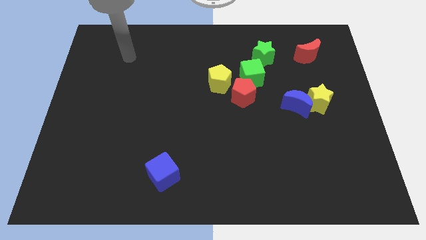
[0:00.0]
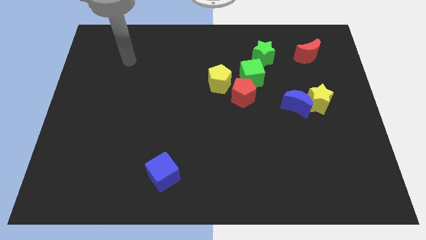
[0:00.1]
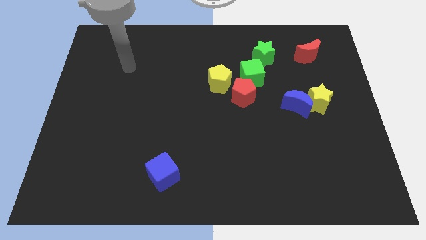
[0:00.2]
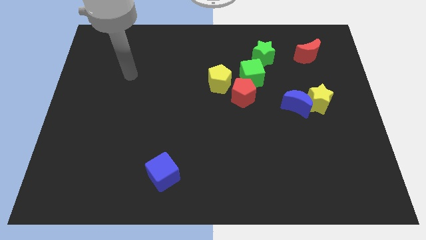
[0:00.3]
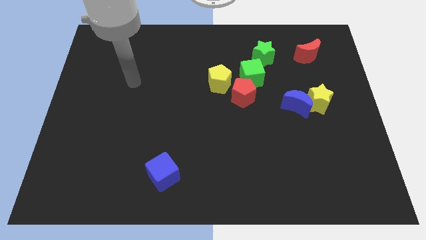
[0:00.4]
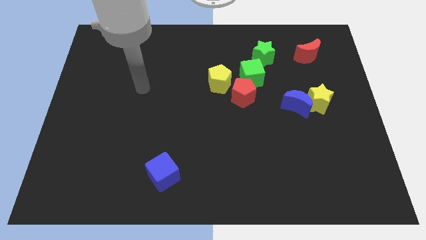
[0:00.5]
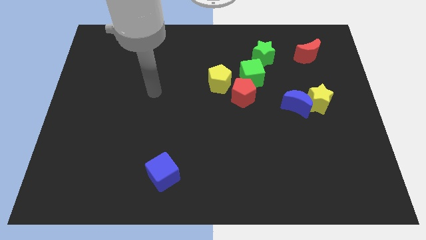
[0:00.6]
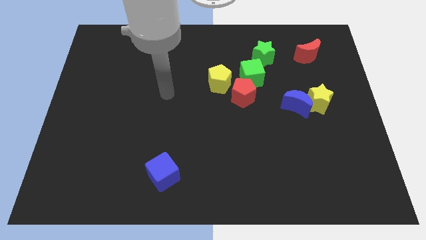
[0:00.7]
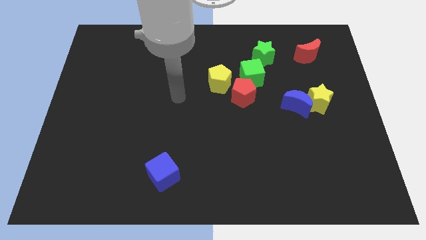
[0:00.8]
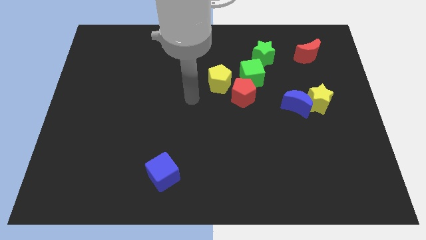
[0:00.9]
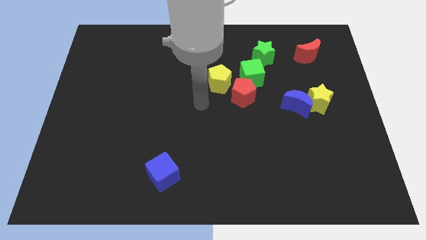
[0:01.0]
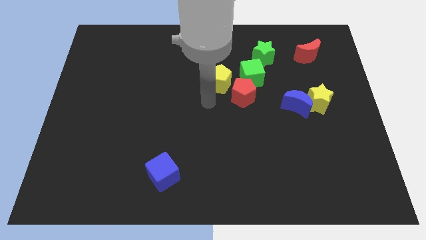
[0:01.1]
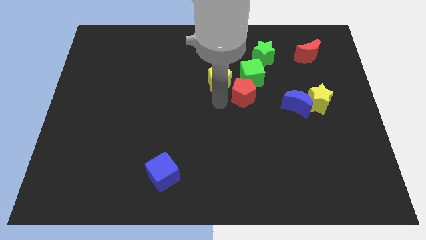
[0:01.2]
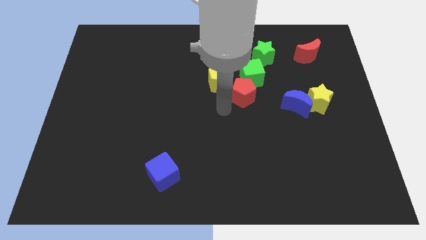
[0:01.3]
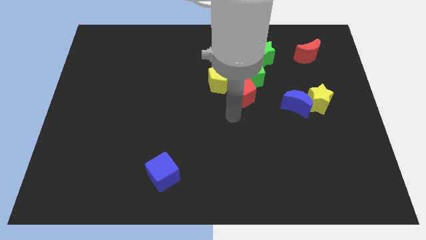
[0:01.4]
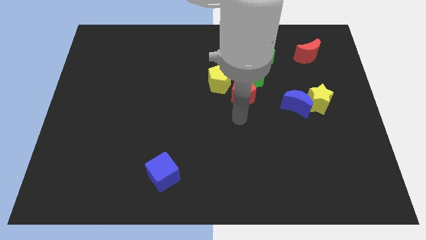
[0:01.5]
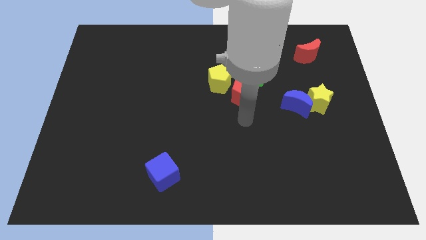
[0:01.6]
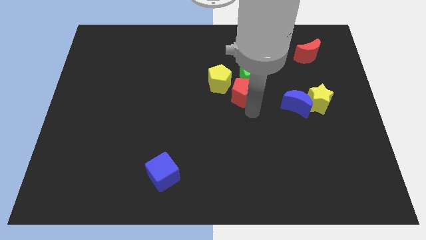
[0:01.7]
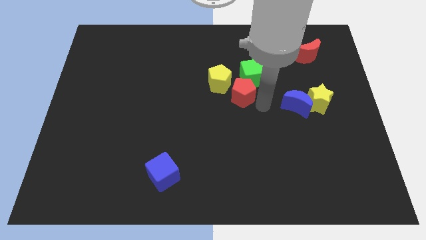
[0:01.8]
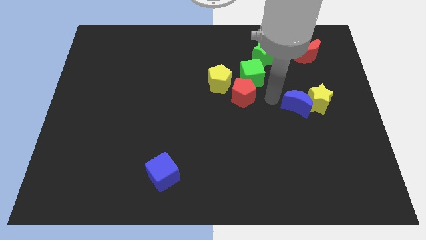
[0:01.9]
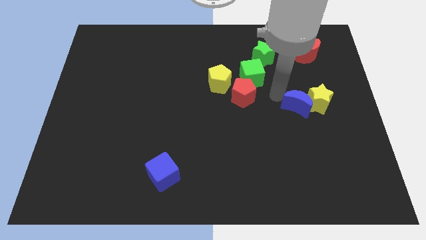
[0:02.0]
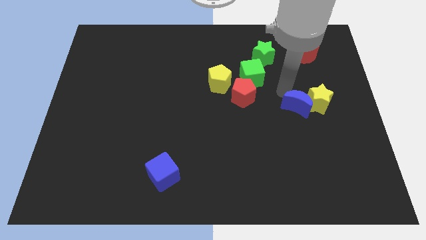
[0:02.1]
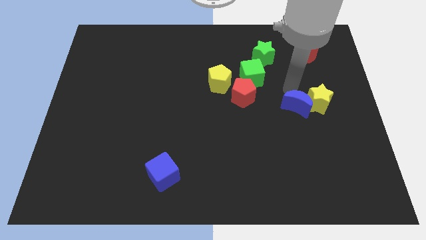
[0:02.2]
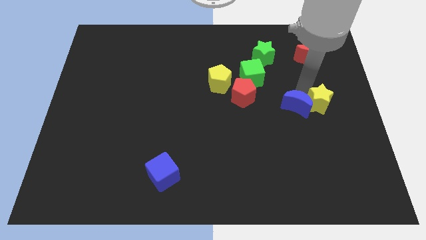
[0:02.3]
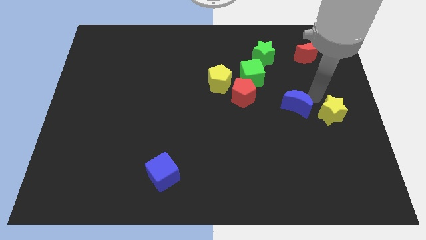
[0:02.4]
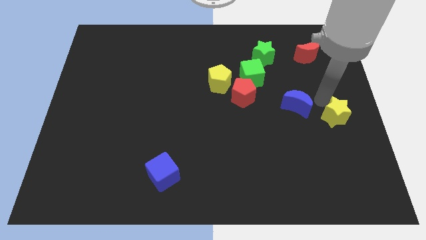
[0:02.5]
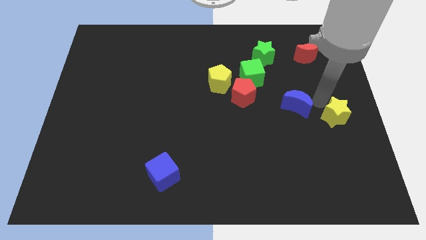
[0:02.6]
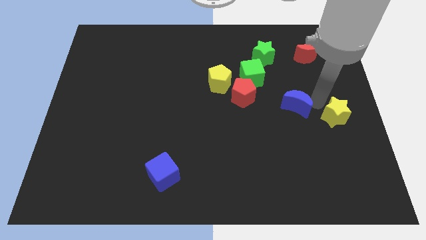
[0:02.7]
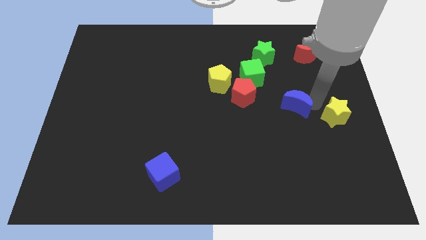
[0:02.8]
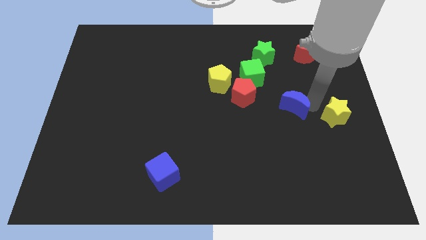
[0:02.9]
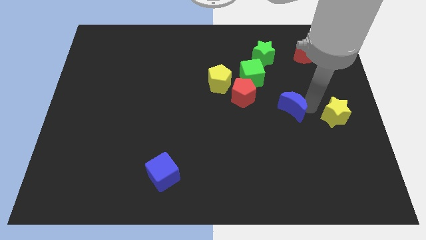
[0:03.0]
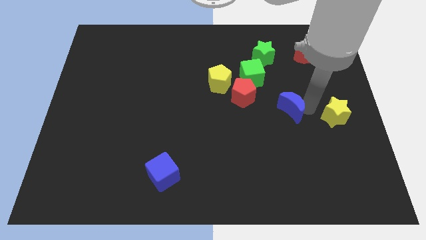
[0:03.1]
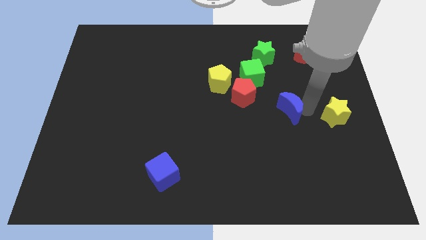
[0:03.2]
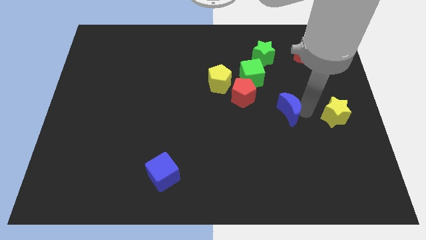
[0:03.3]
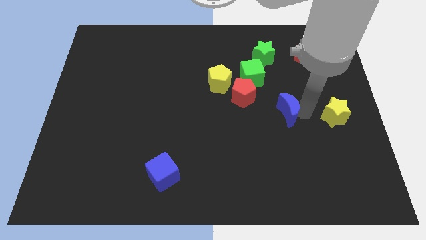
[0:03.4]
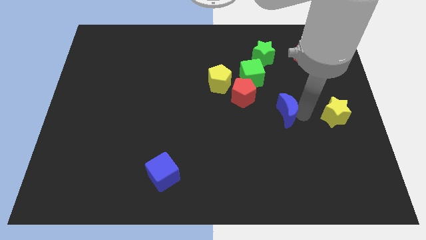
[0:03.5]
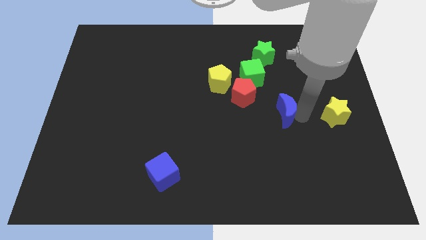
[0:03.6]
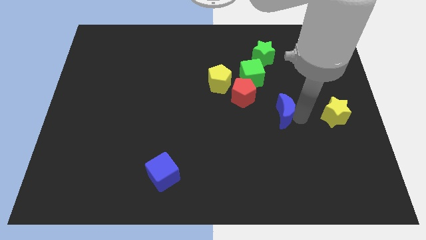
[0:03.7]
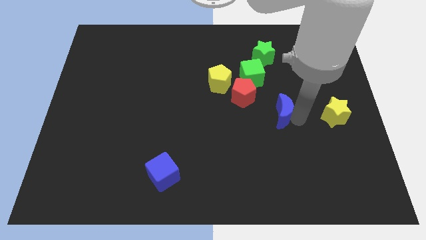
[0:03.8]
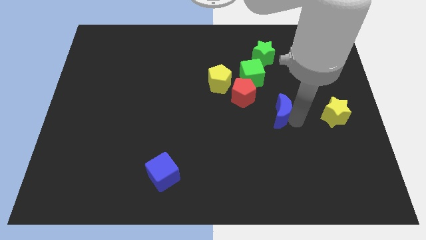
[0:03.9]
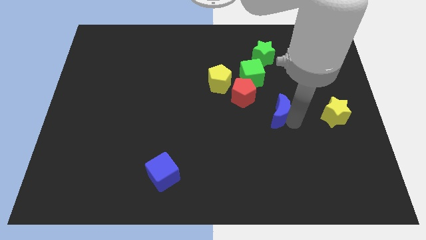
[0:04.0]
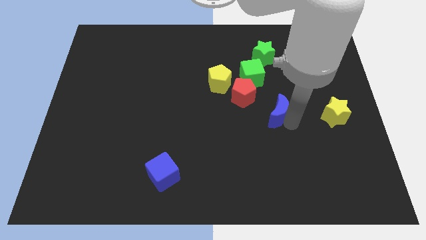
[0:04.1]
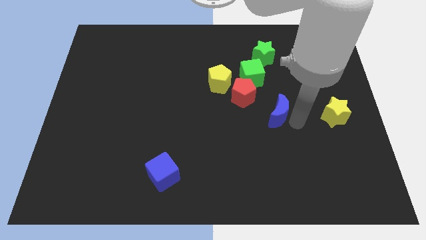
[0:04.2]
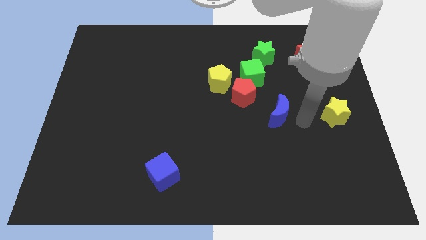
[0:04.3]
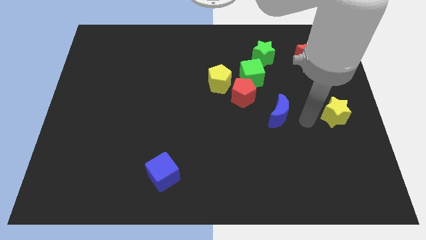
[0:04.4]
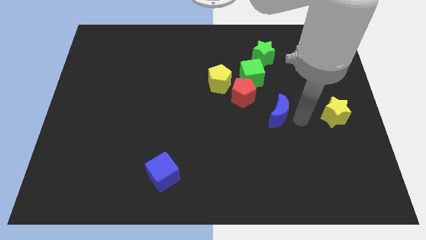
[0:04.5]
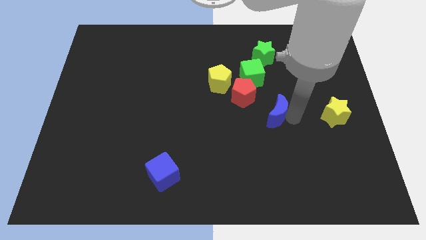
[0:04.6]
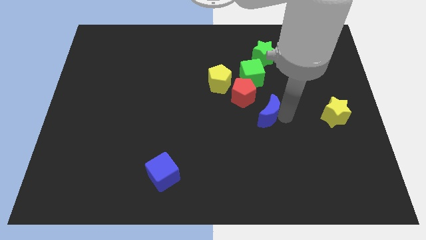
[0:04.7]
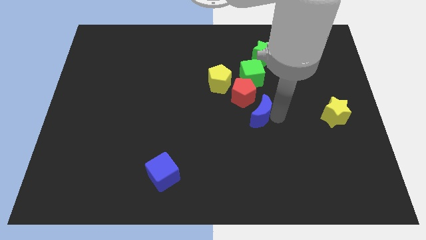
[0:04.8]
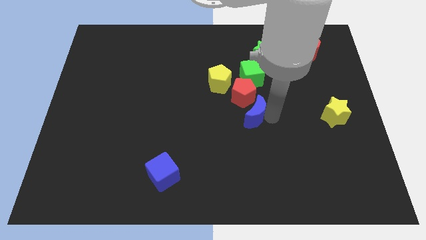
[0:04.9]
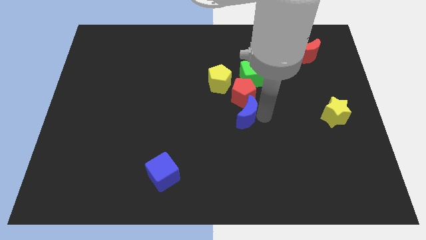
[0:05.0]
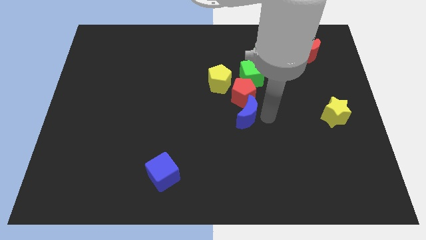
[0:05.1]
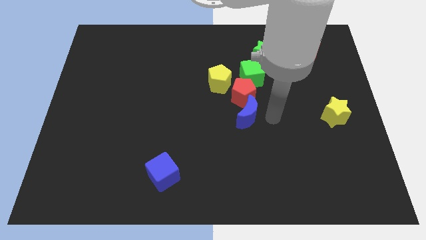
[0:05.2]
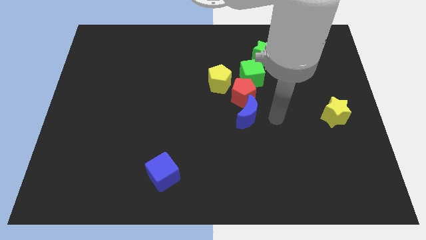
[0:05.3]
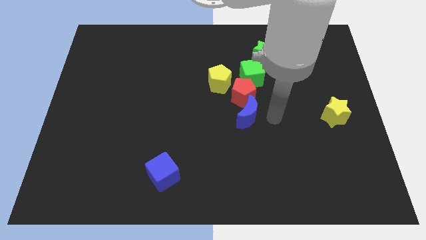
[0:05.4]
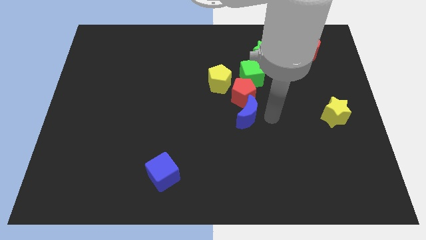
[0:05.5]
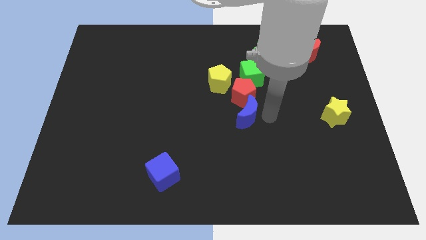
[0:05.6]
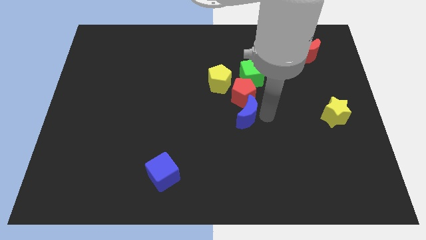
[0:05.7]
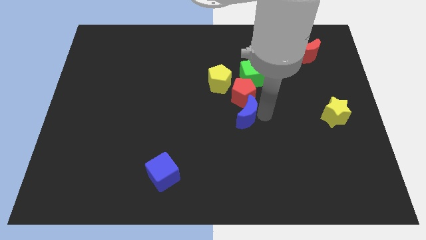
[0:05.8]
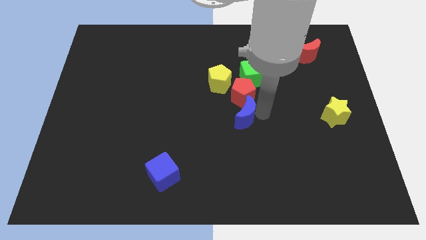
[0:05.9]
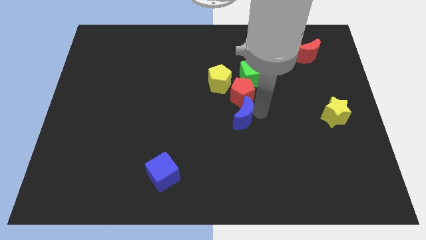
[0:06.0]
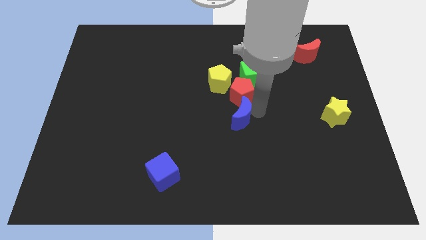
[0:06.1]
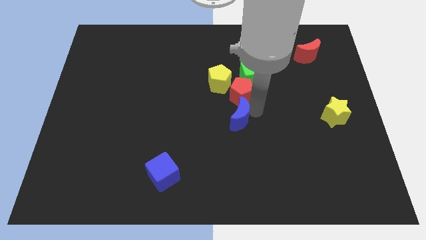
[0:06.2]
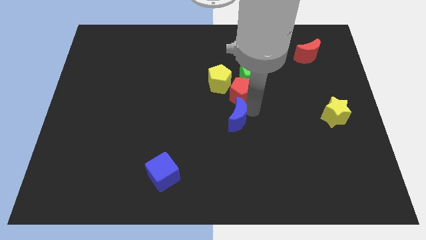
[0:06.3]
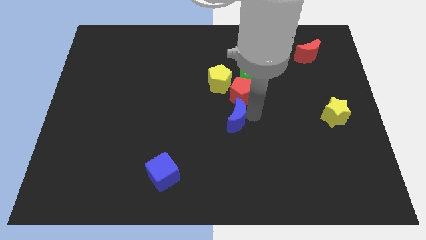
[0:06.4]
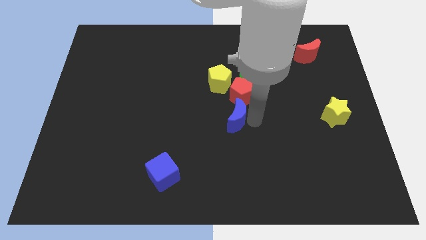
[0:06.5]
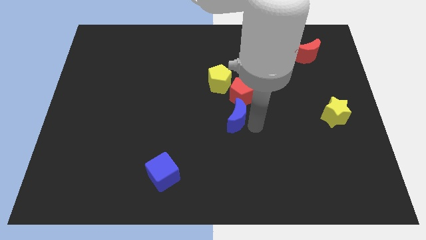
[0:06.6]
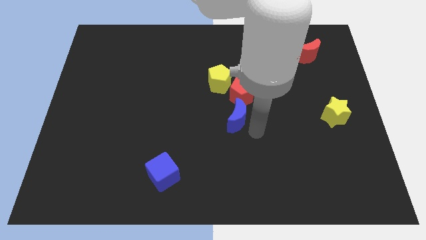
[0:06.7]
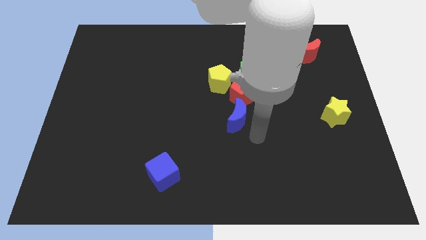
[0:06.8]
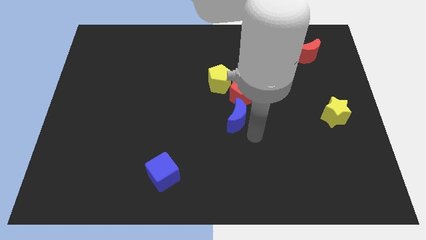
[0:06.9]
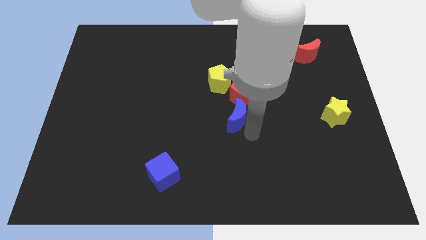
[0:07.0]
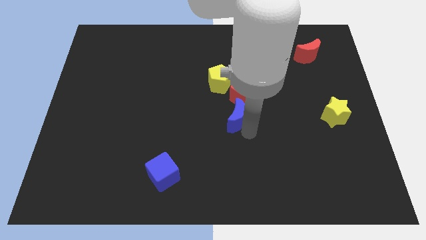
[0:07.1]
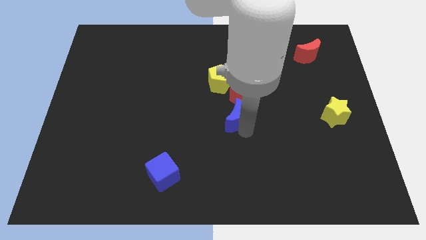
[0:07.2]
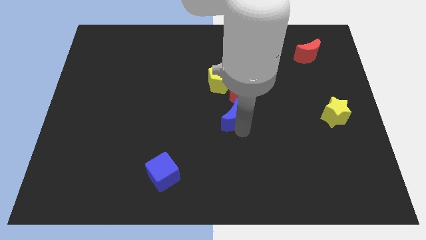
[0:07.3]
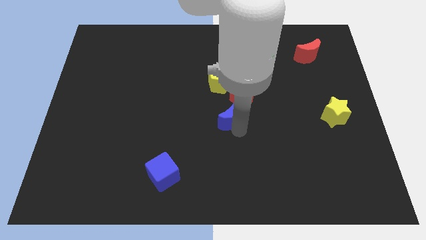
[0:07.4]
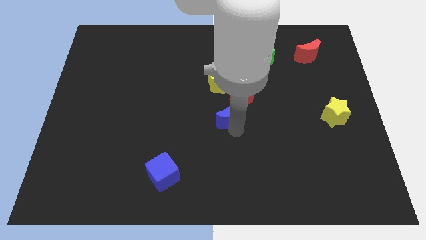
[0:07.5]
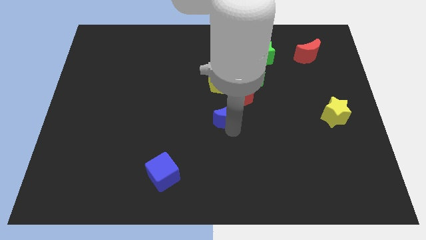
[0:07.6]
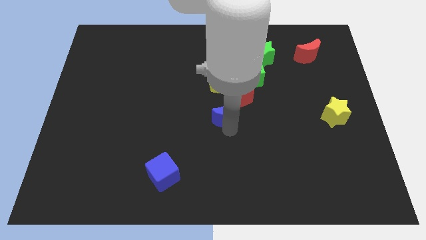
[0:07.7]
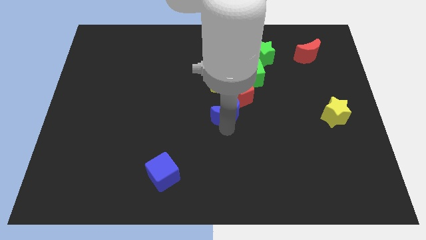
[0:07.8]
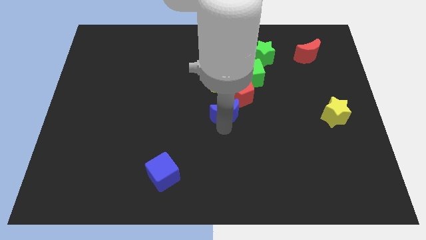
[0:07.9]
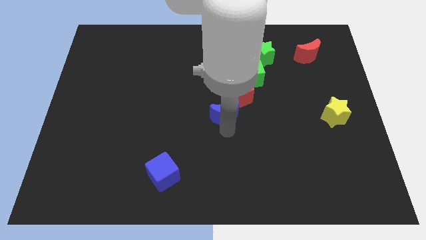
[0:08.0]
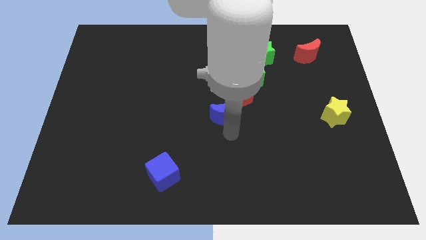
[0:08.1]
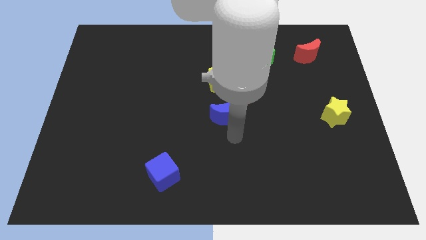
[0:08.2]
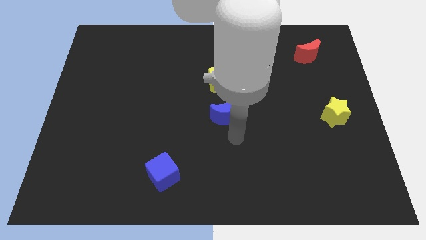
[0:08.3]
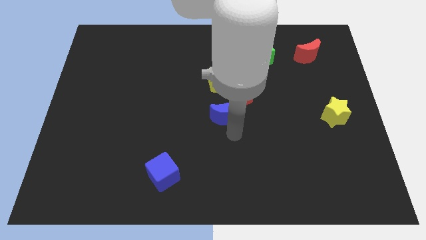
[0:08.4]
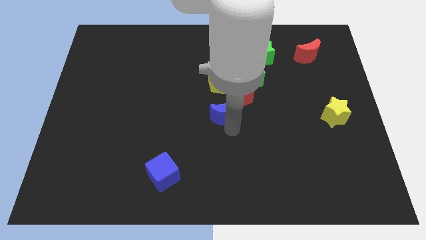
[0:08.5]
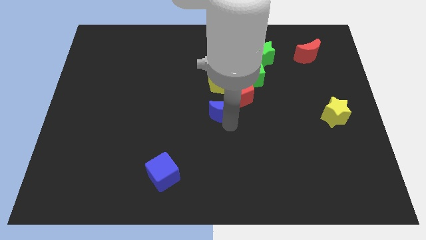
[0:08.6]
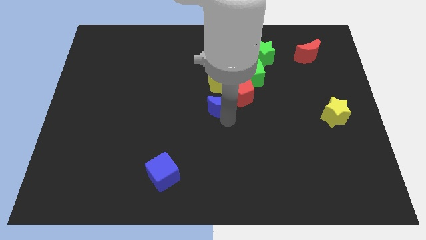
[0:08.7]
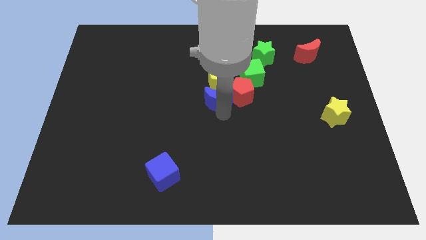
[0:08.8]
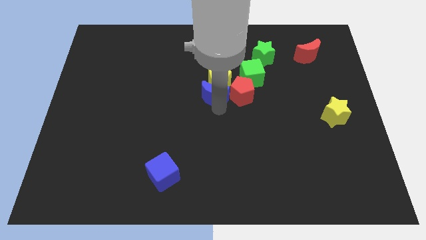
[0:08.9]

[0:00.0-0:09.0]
push the blue moon close to the yellow pentagon
